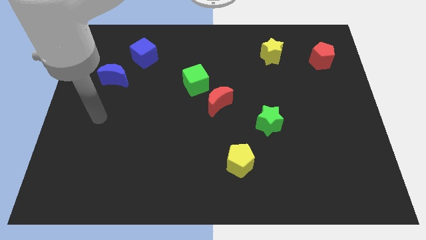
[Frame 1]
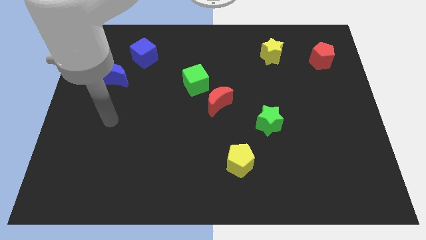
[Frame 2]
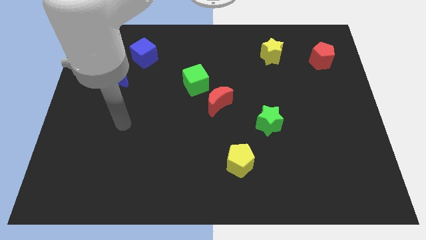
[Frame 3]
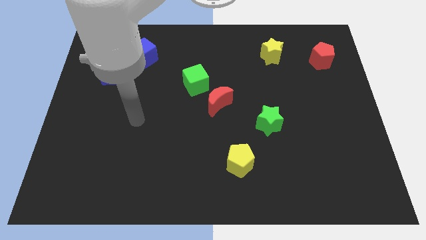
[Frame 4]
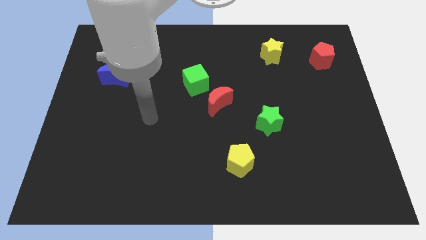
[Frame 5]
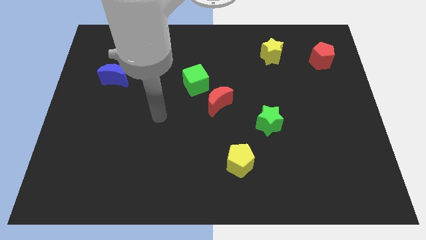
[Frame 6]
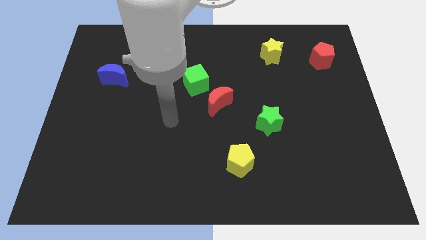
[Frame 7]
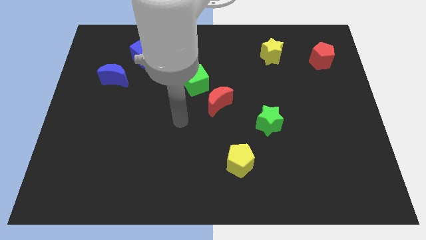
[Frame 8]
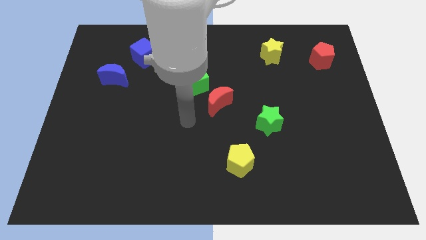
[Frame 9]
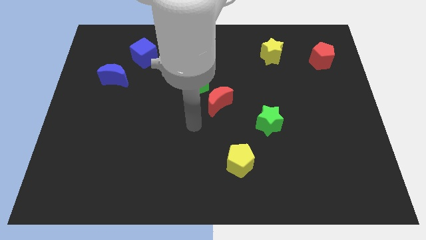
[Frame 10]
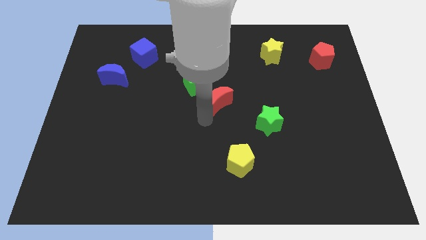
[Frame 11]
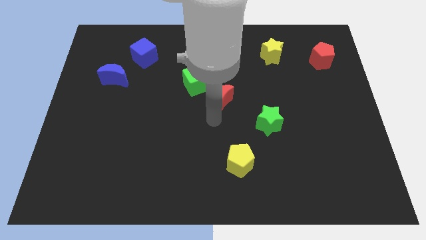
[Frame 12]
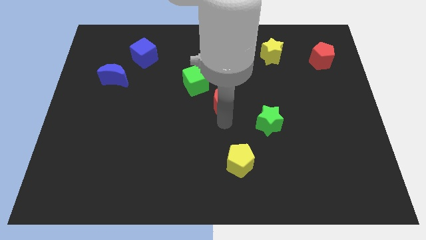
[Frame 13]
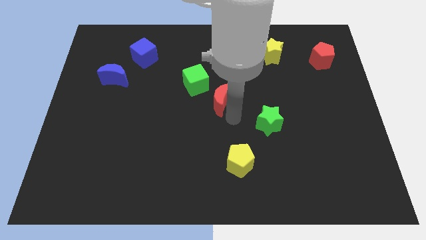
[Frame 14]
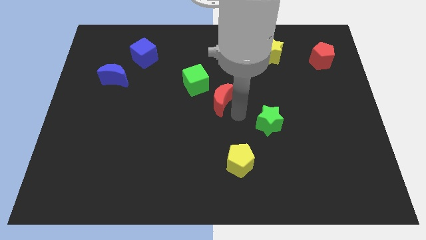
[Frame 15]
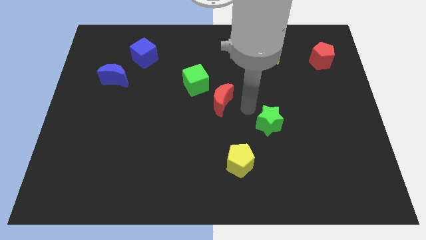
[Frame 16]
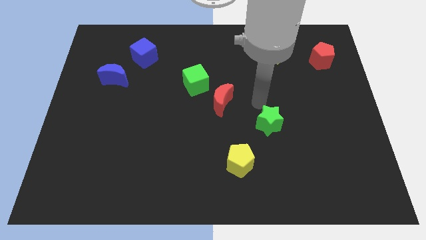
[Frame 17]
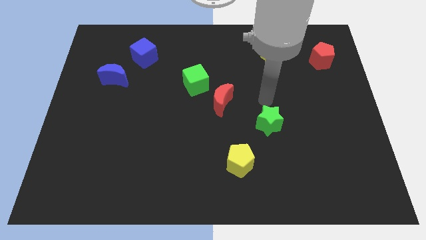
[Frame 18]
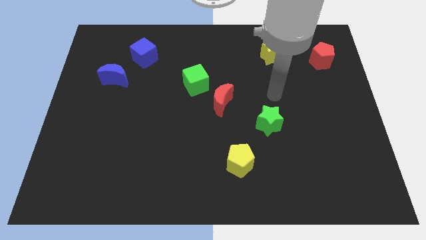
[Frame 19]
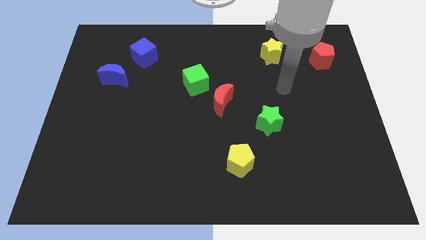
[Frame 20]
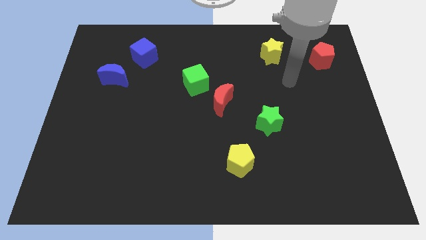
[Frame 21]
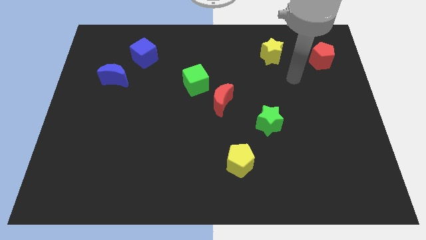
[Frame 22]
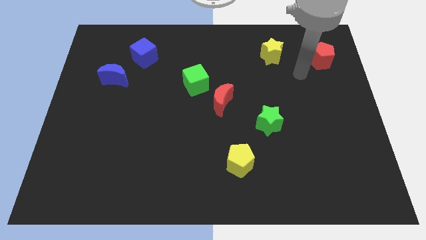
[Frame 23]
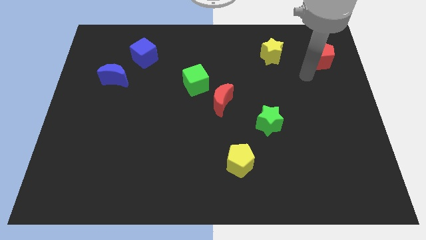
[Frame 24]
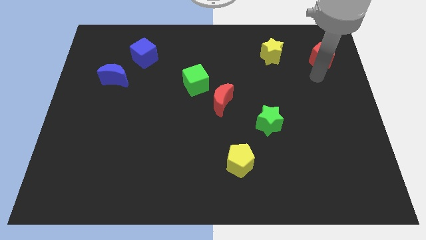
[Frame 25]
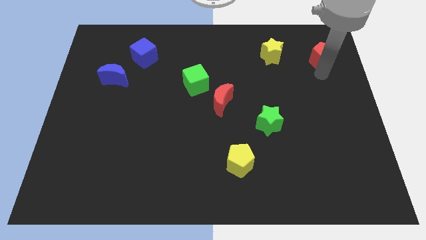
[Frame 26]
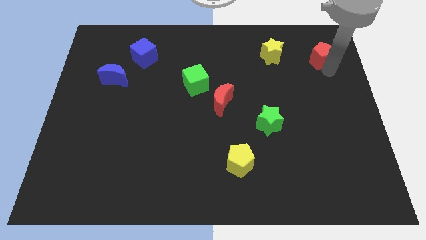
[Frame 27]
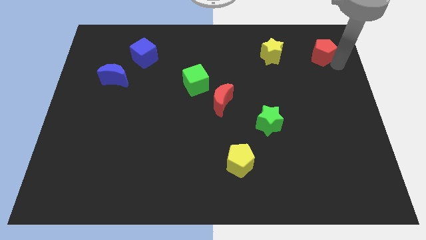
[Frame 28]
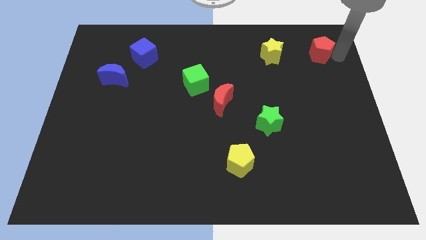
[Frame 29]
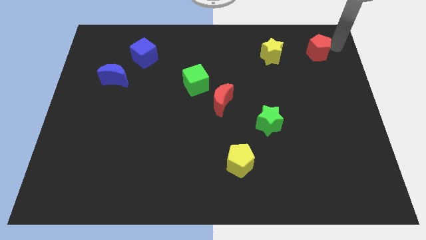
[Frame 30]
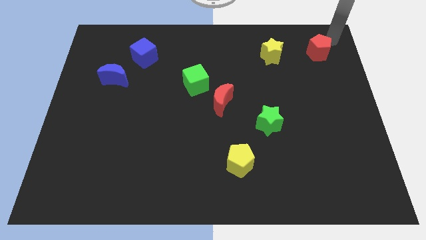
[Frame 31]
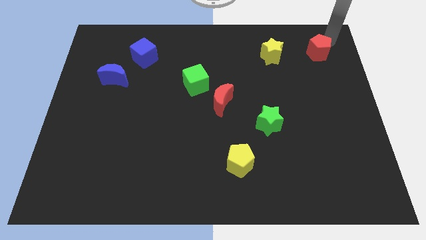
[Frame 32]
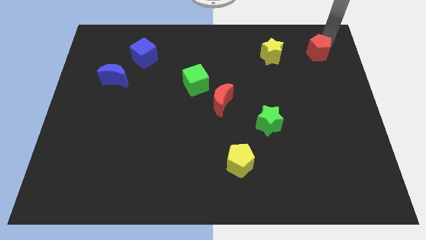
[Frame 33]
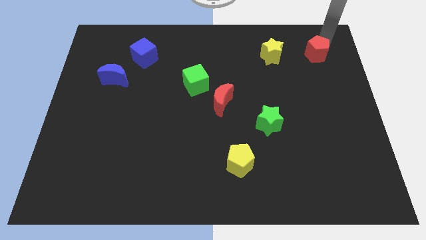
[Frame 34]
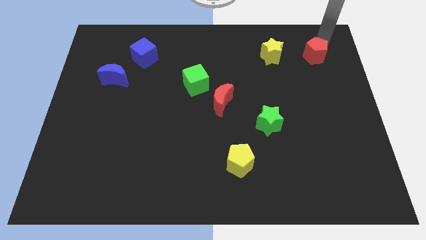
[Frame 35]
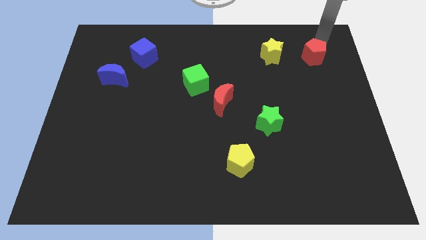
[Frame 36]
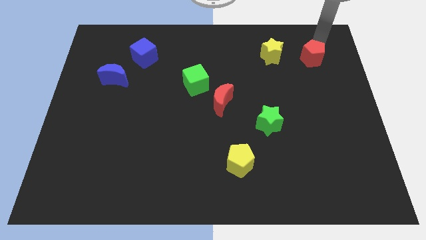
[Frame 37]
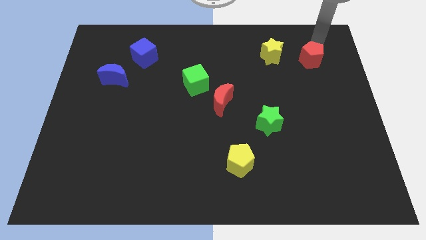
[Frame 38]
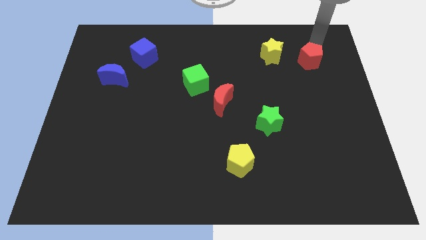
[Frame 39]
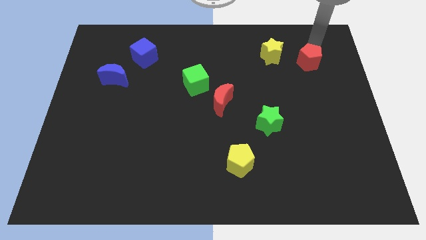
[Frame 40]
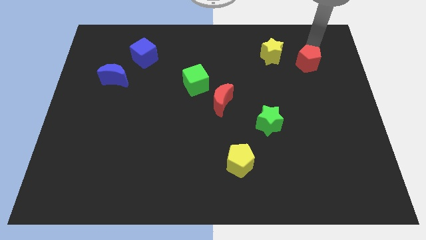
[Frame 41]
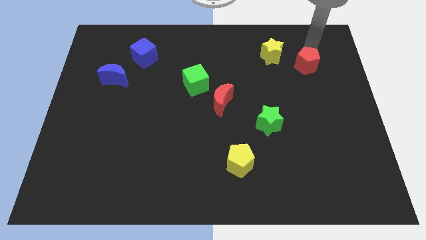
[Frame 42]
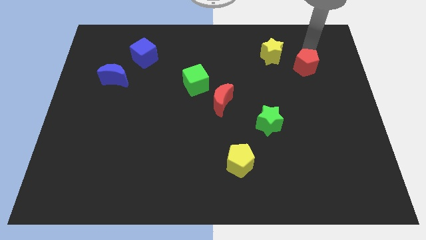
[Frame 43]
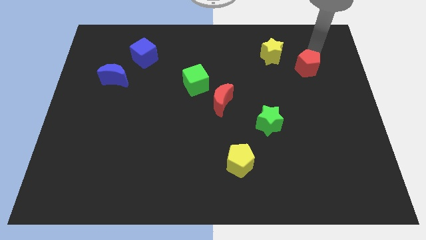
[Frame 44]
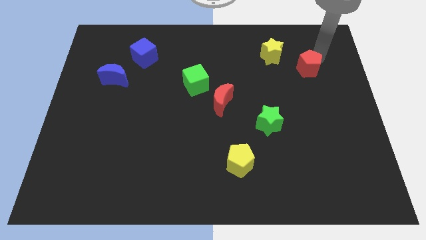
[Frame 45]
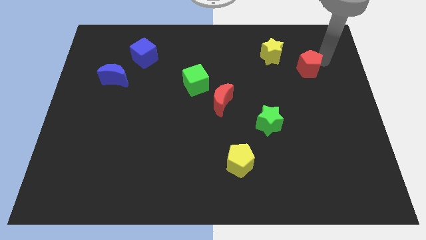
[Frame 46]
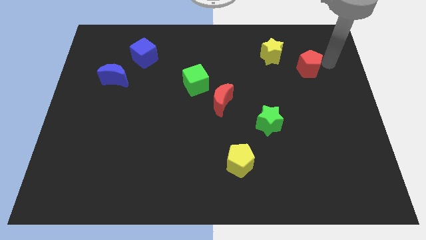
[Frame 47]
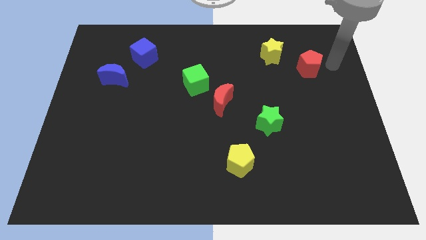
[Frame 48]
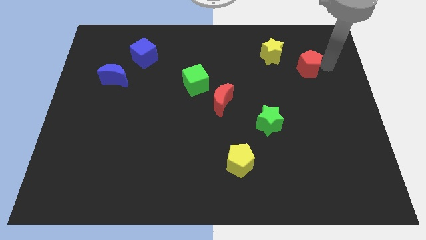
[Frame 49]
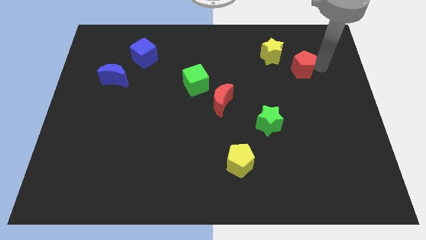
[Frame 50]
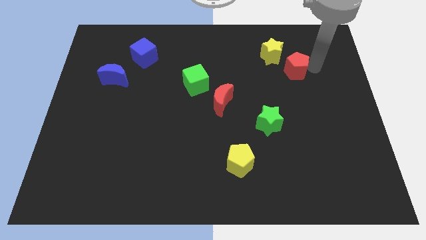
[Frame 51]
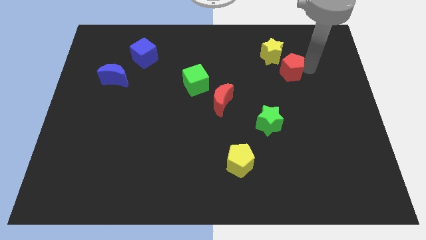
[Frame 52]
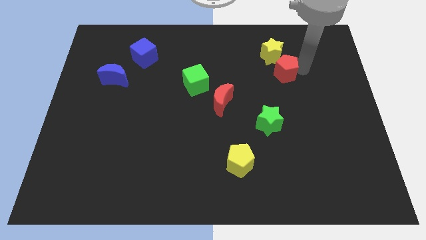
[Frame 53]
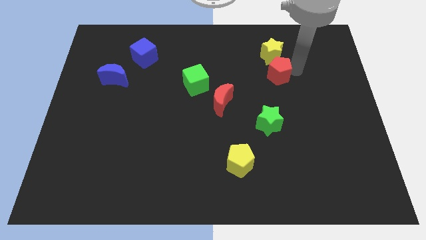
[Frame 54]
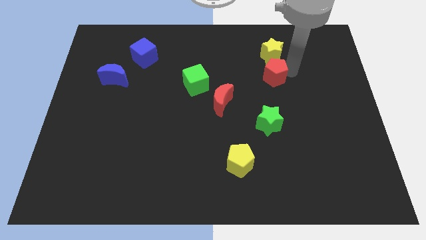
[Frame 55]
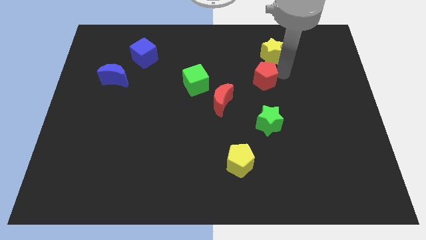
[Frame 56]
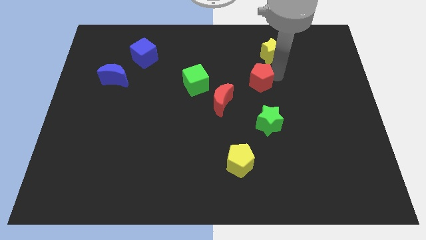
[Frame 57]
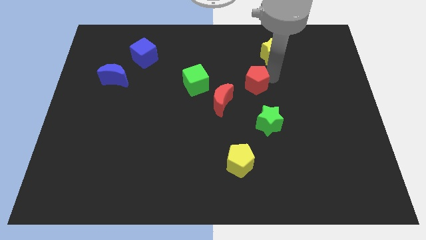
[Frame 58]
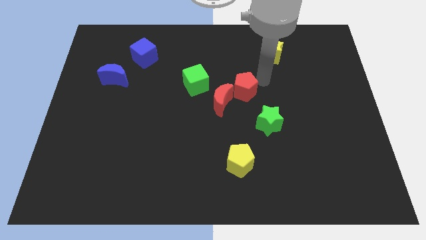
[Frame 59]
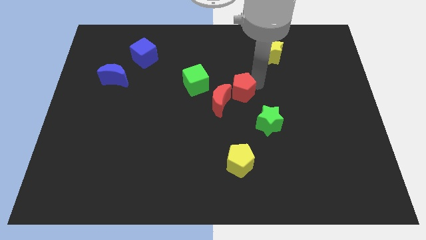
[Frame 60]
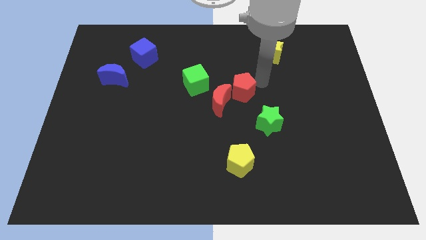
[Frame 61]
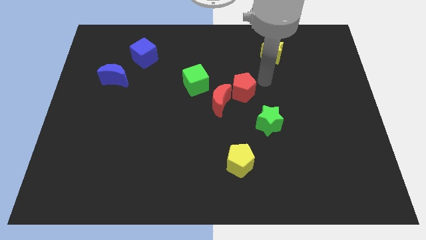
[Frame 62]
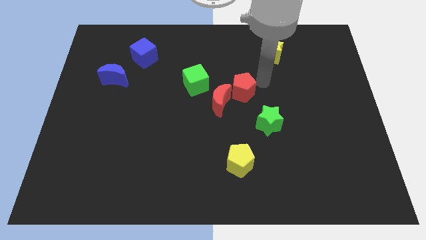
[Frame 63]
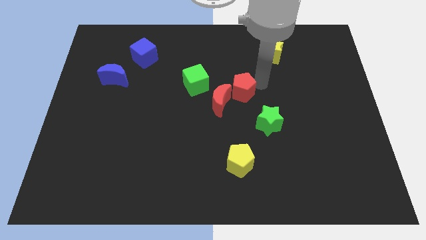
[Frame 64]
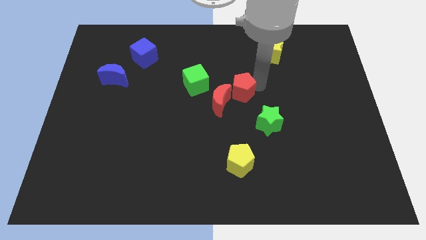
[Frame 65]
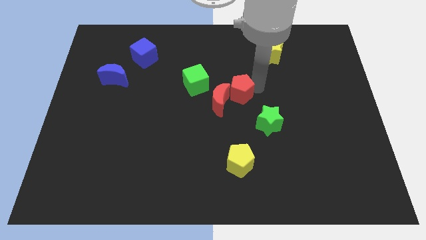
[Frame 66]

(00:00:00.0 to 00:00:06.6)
push the red pentagon close to the red moon
